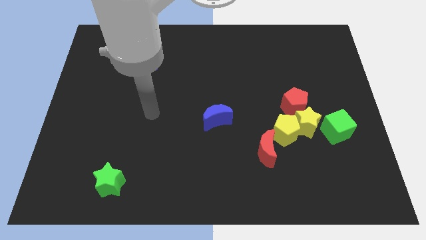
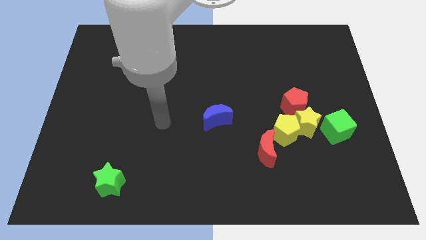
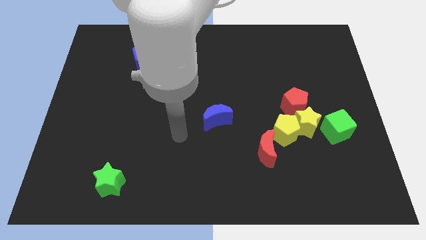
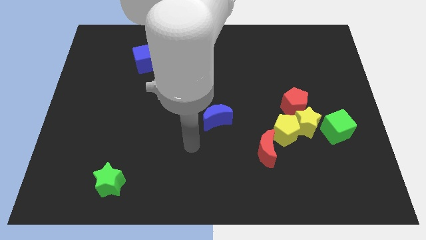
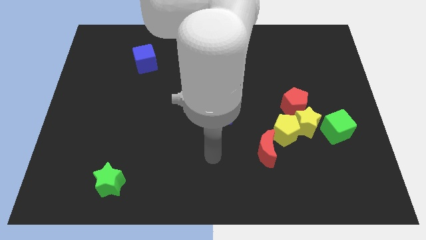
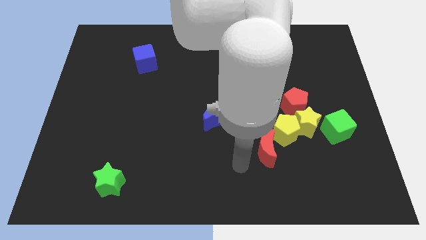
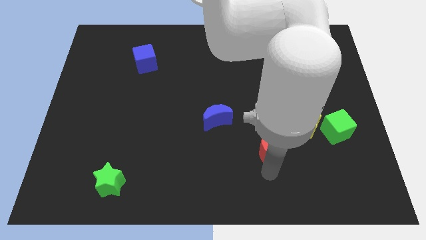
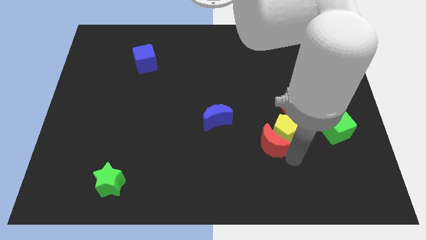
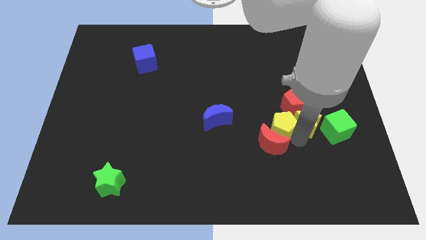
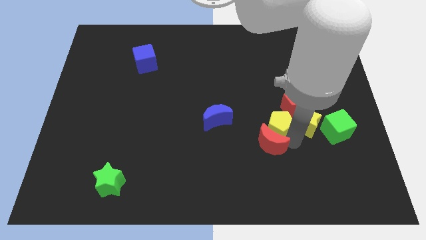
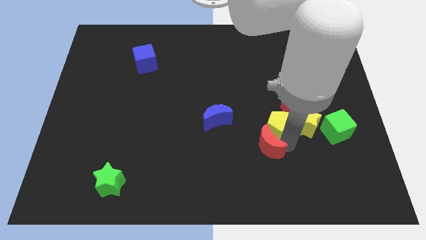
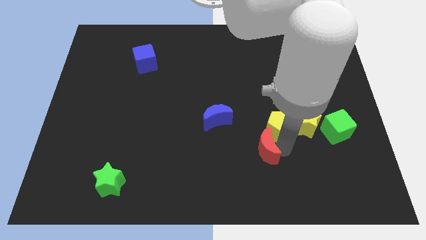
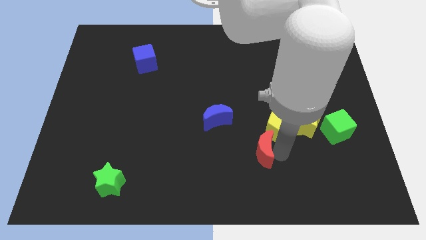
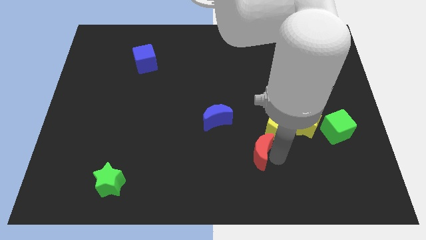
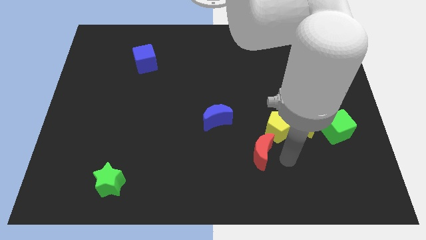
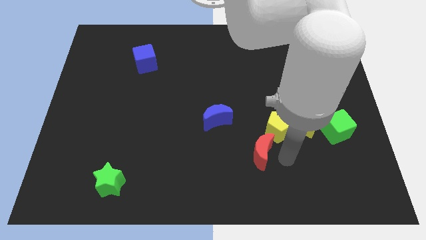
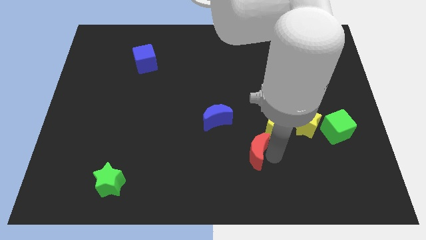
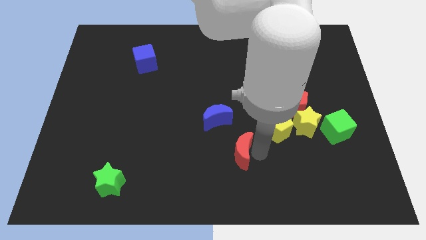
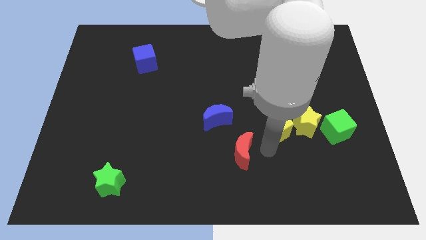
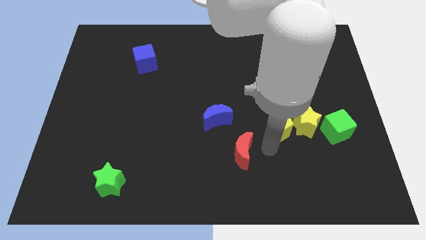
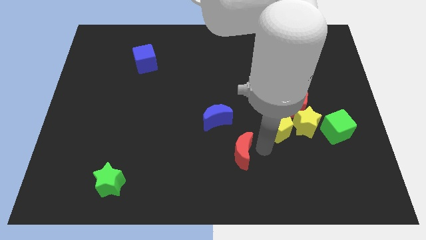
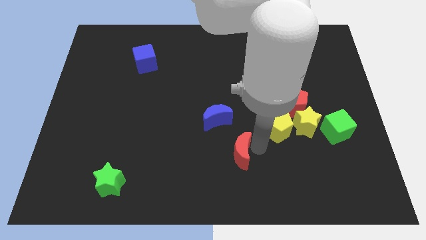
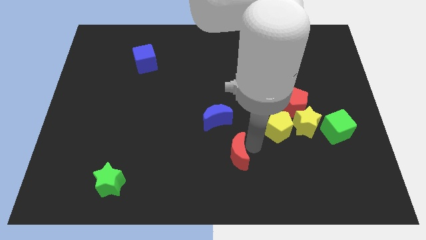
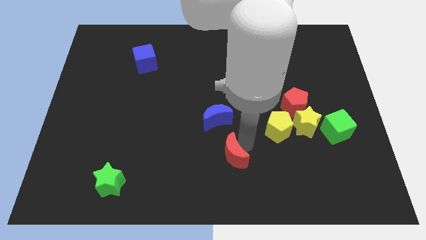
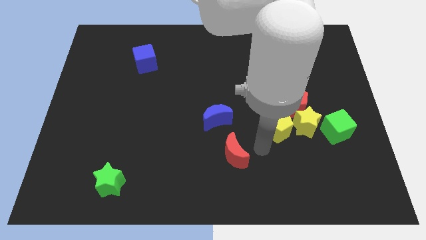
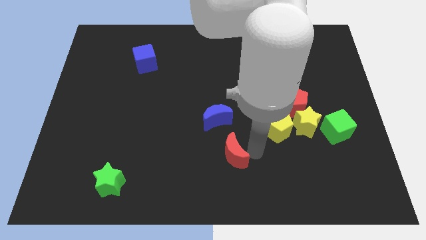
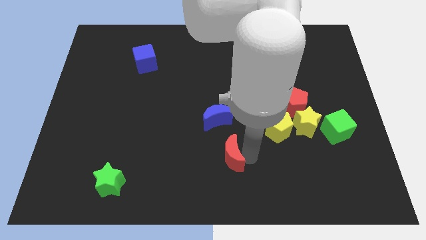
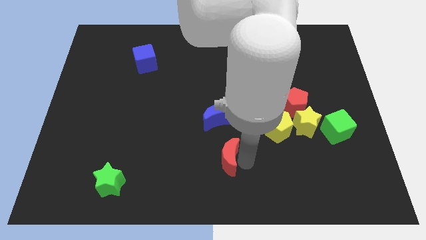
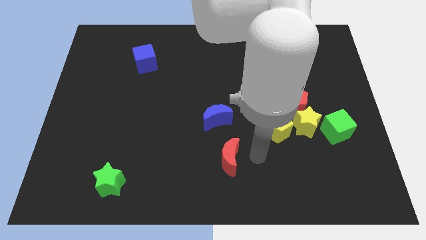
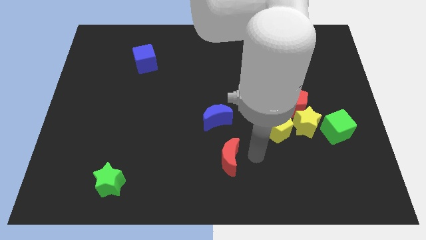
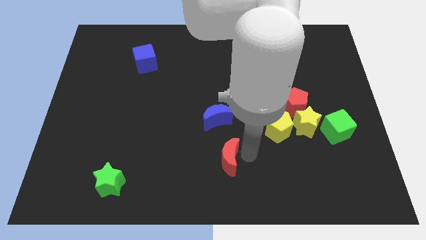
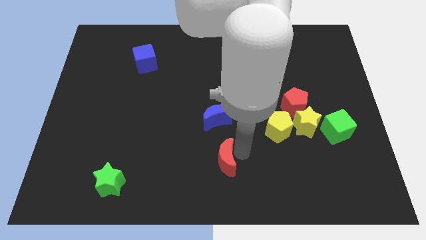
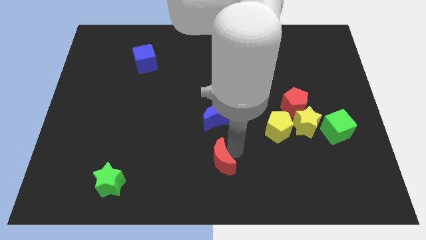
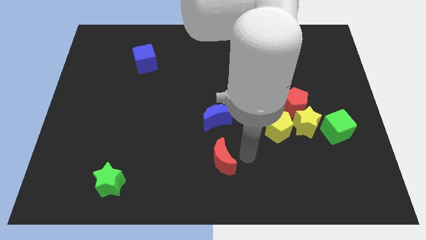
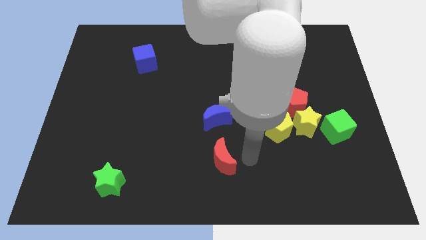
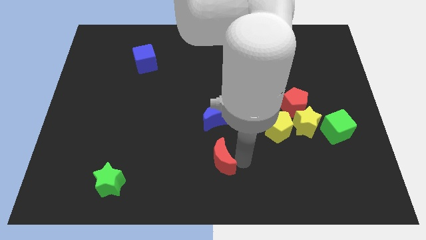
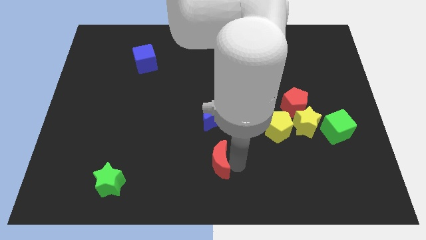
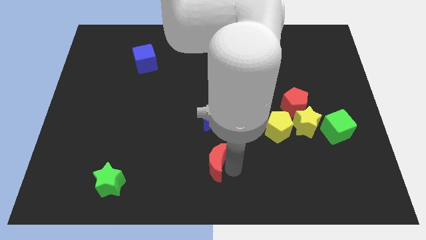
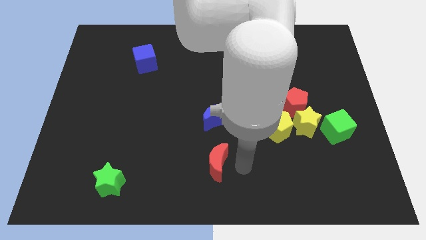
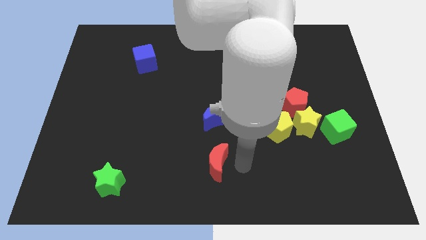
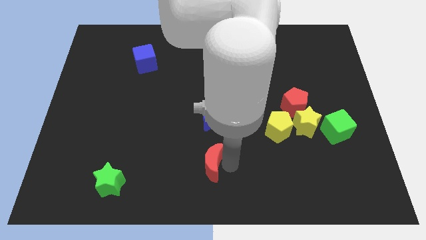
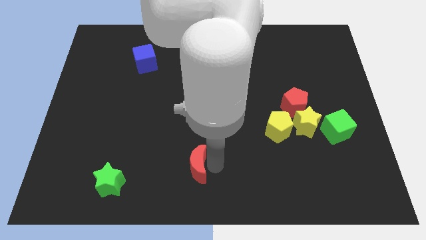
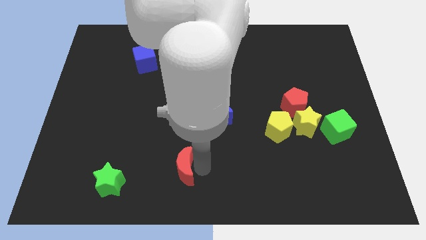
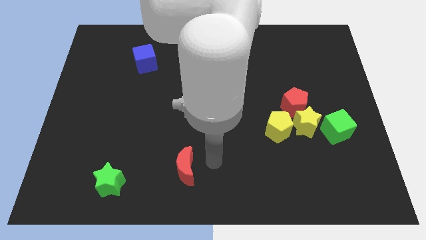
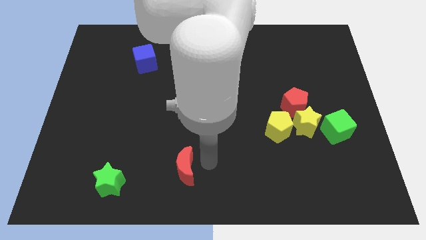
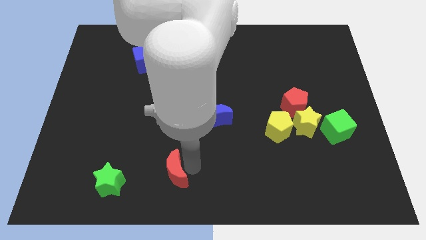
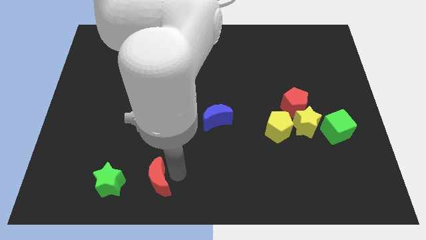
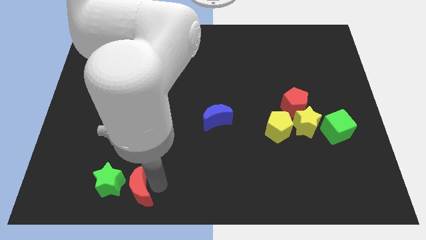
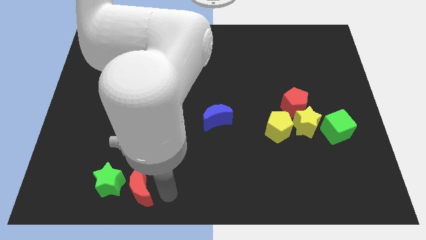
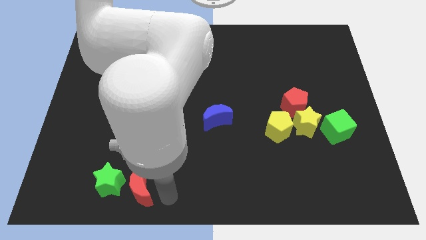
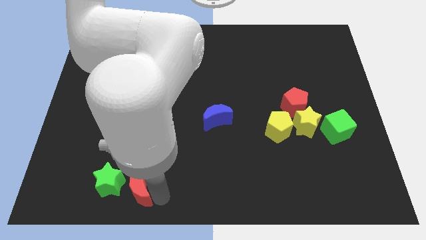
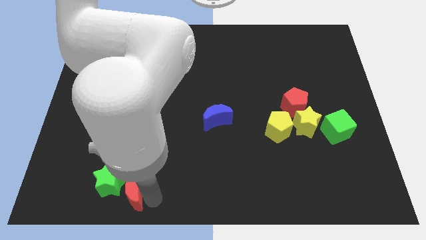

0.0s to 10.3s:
push the red moon next to the green star

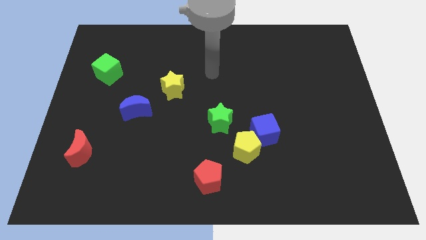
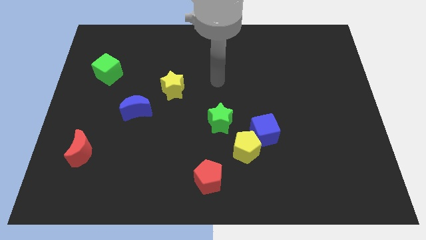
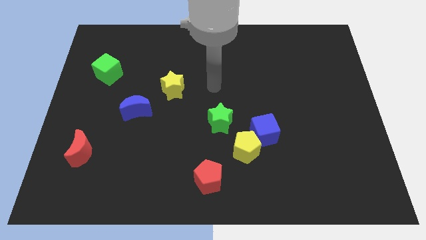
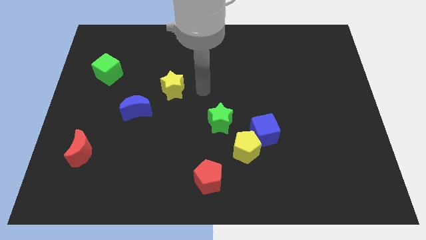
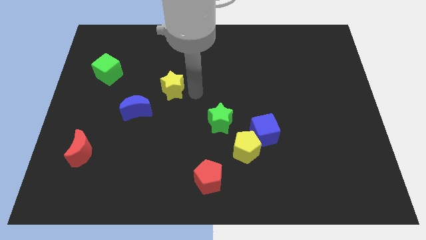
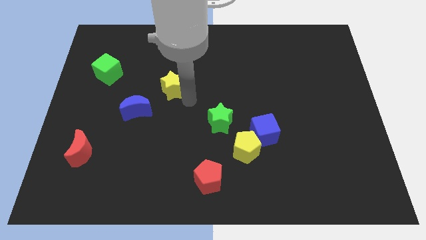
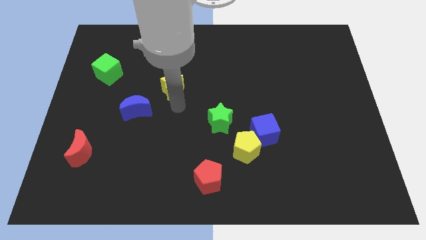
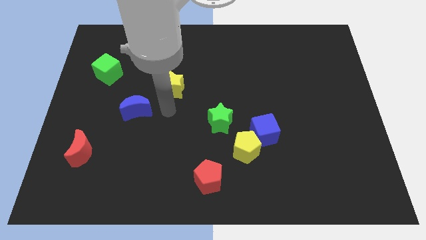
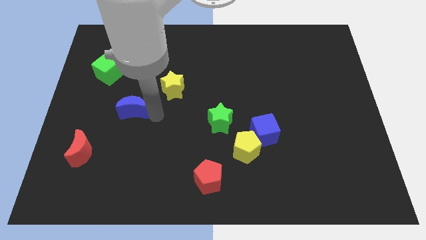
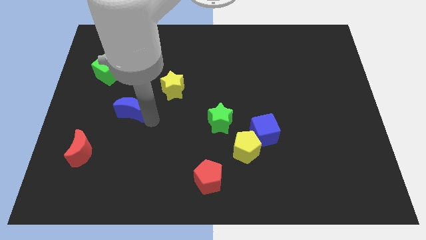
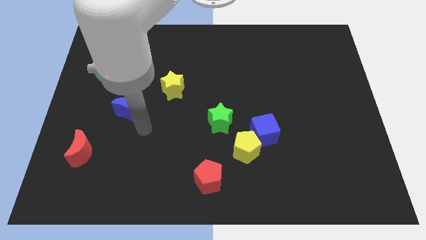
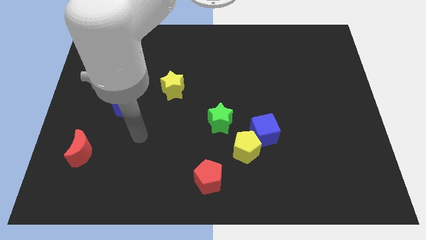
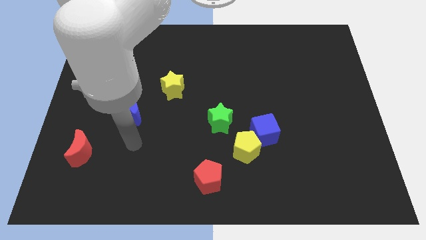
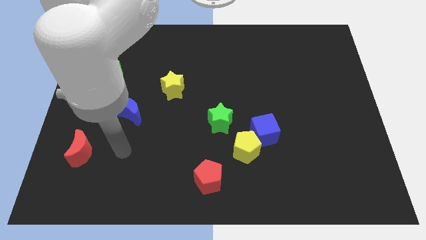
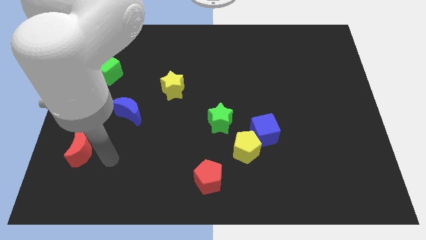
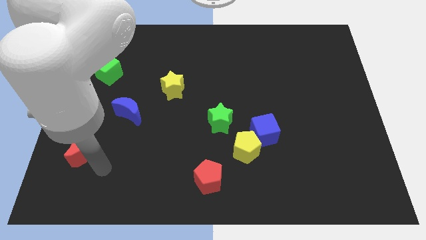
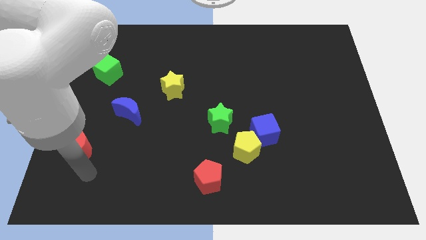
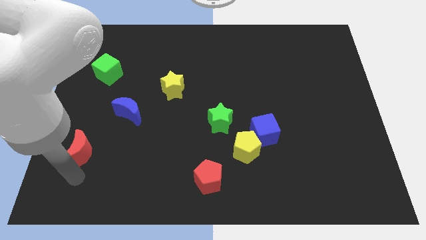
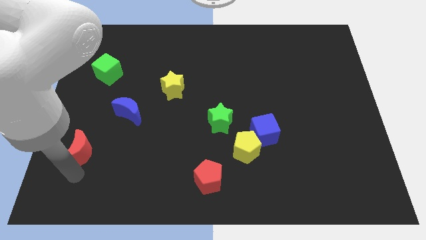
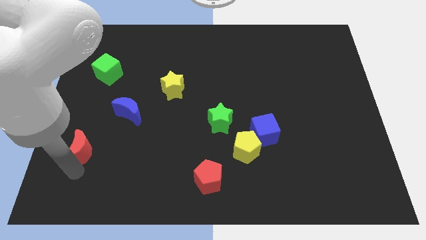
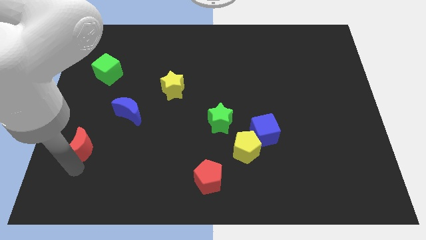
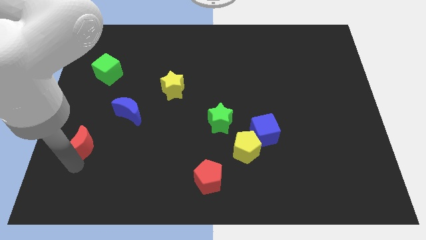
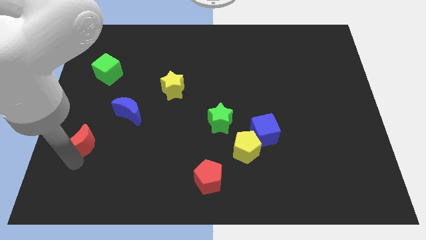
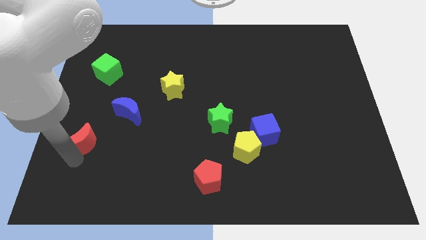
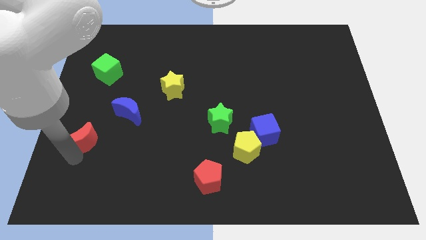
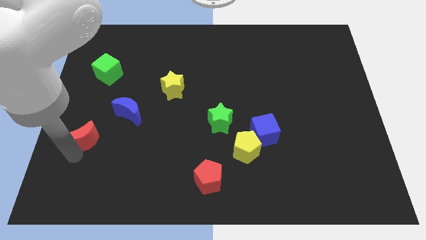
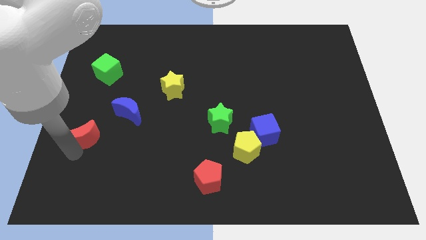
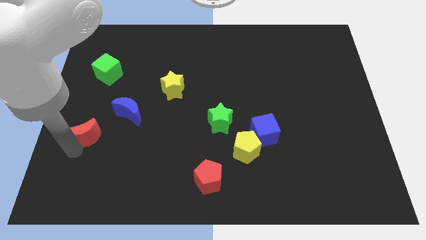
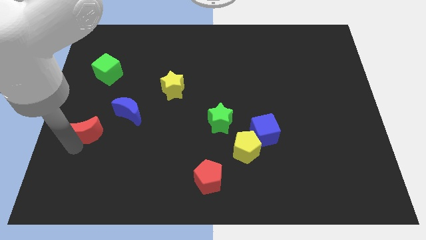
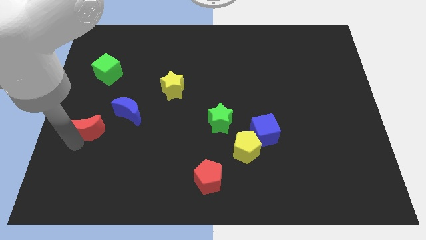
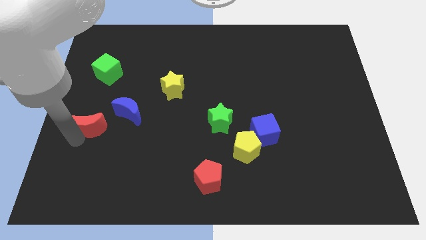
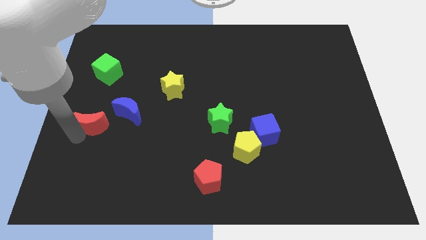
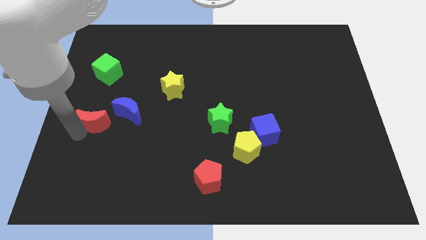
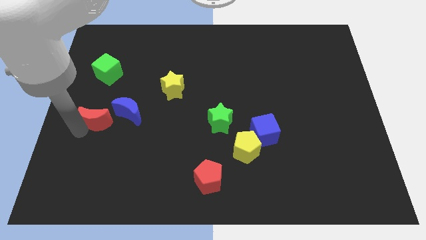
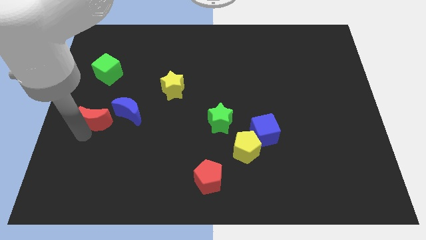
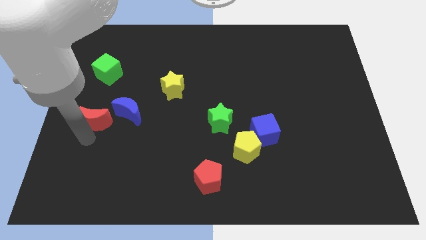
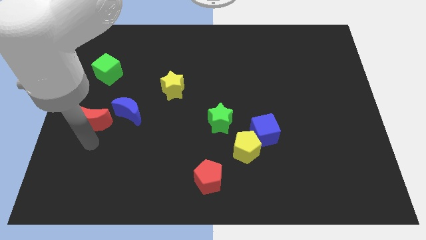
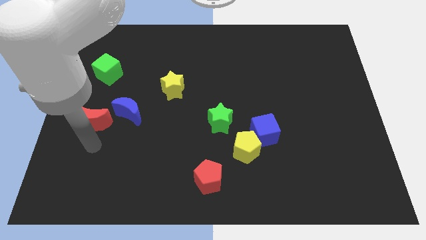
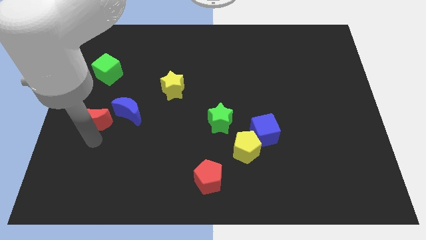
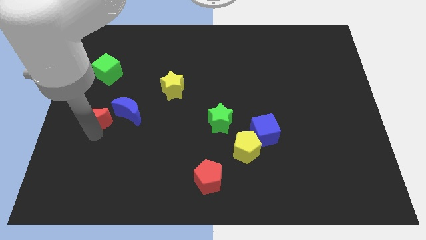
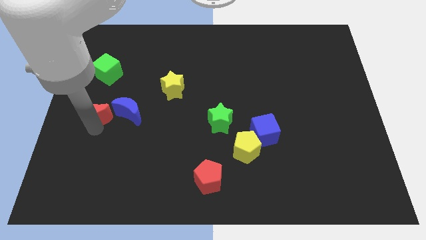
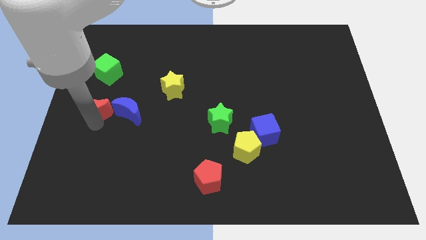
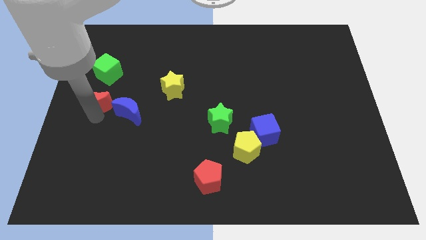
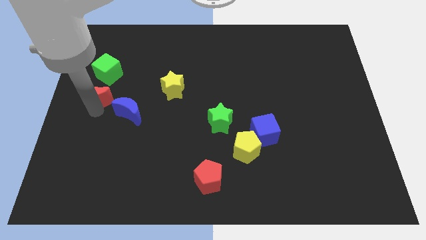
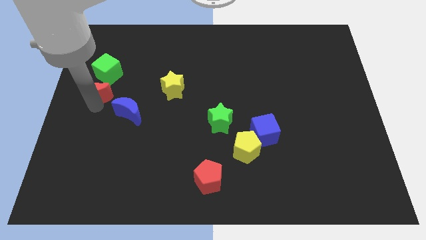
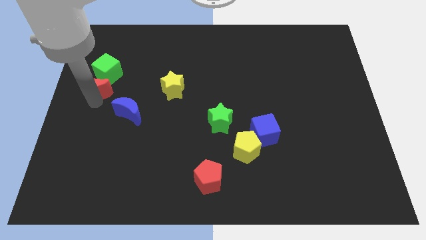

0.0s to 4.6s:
push the red moon close to the green cube
